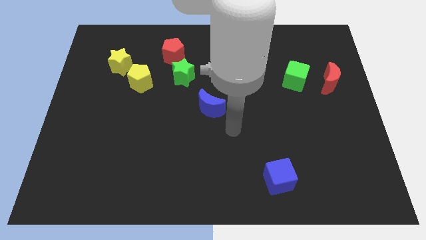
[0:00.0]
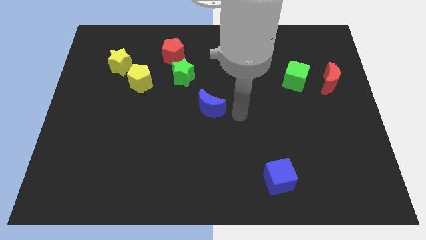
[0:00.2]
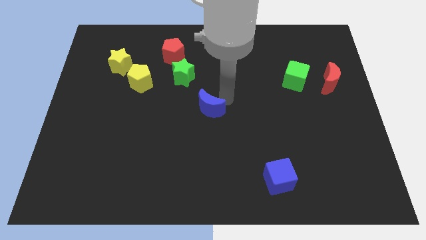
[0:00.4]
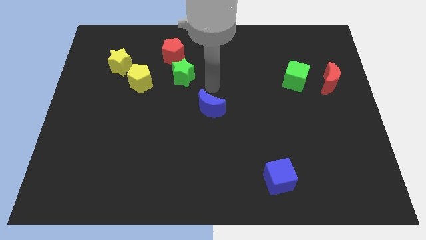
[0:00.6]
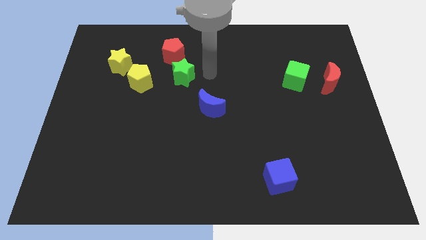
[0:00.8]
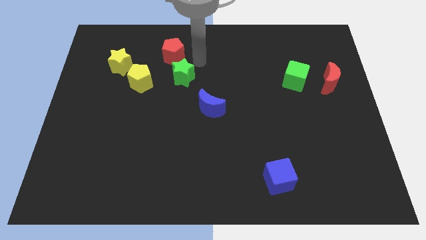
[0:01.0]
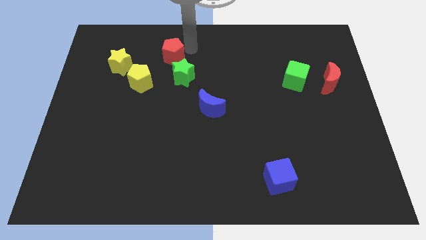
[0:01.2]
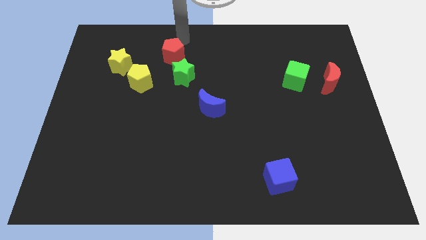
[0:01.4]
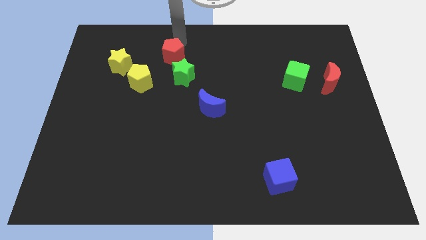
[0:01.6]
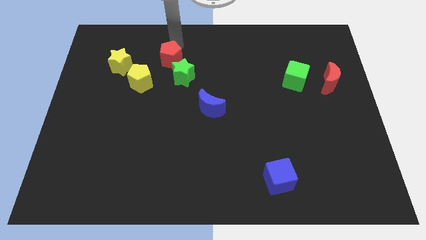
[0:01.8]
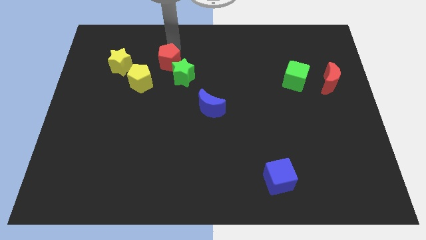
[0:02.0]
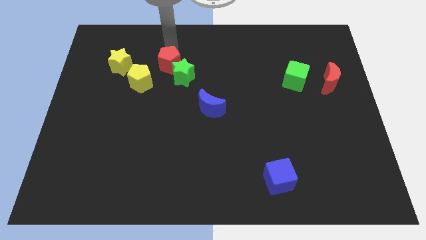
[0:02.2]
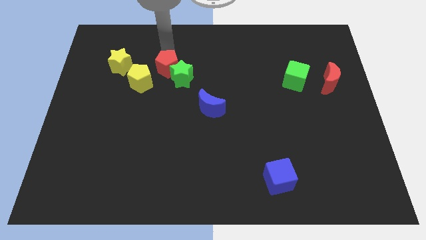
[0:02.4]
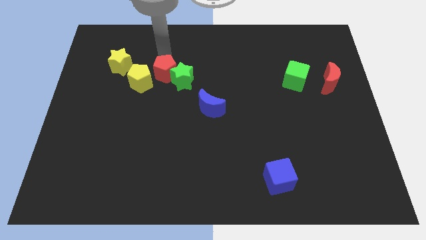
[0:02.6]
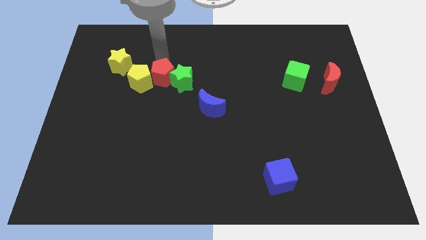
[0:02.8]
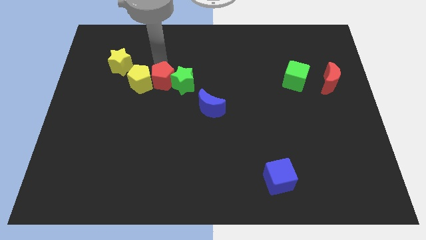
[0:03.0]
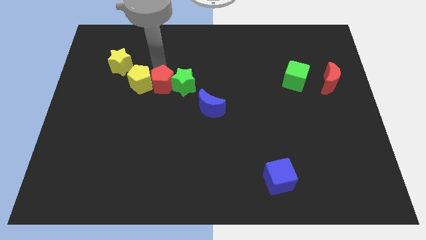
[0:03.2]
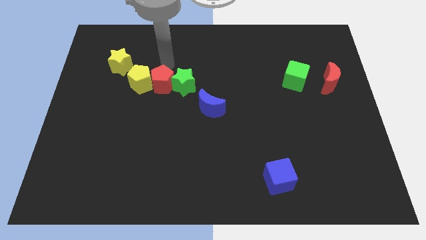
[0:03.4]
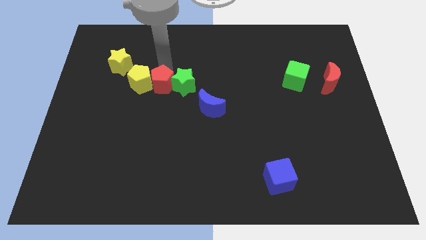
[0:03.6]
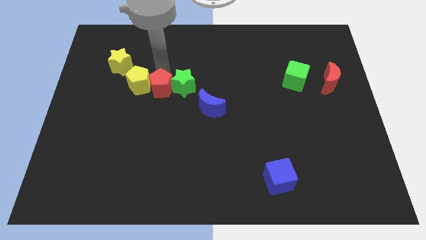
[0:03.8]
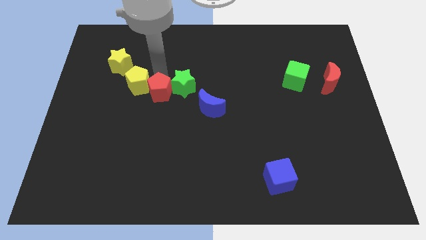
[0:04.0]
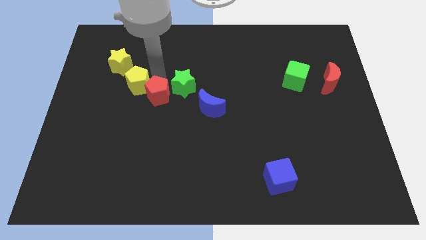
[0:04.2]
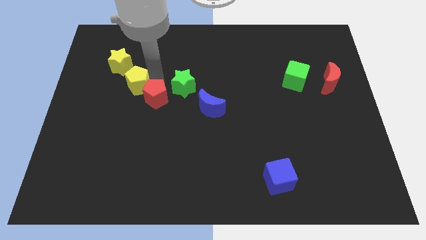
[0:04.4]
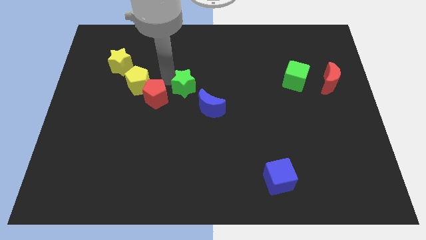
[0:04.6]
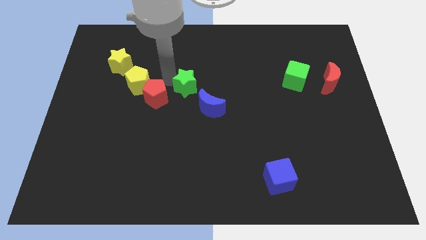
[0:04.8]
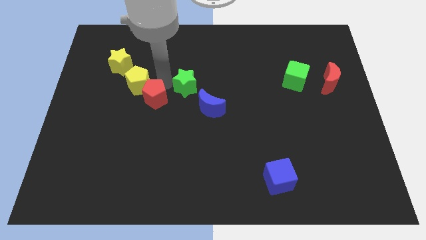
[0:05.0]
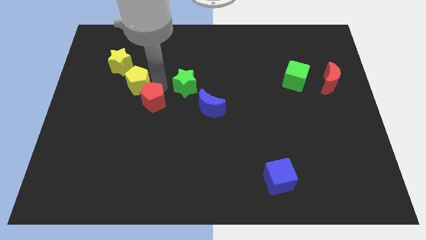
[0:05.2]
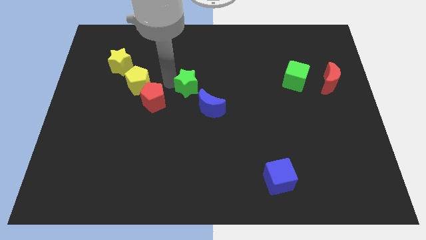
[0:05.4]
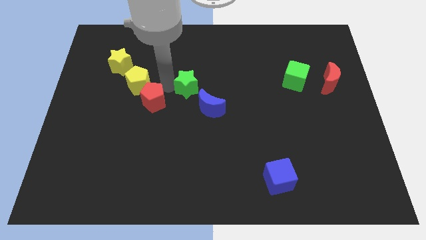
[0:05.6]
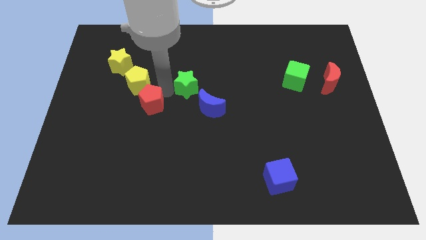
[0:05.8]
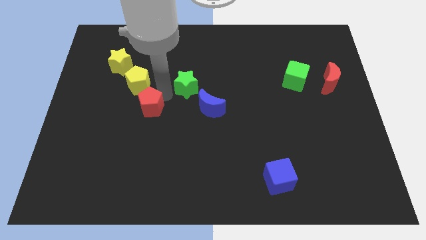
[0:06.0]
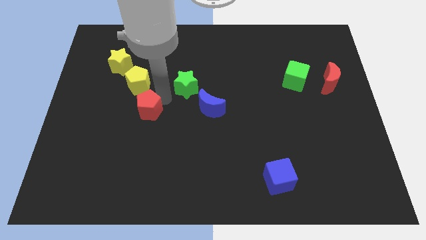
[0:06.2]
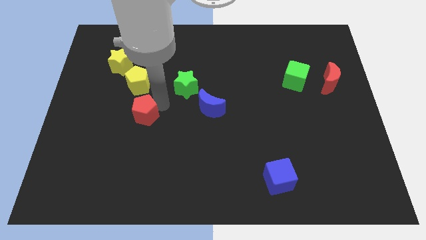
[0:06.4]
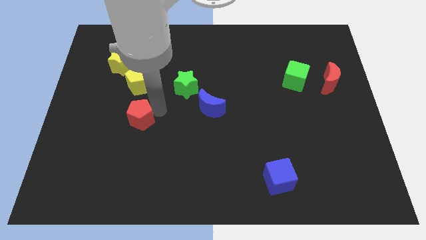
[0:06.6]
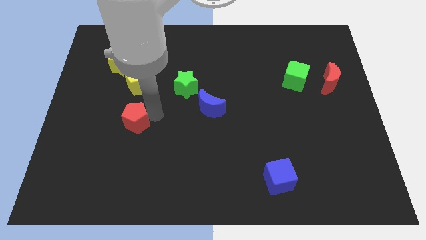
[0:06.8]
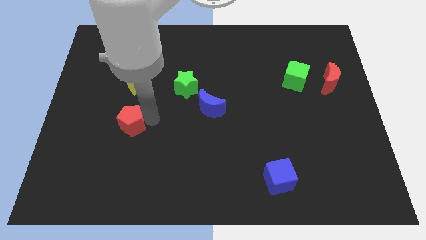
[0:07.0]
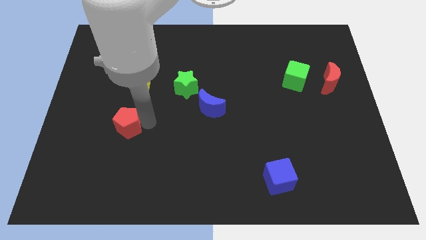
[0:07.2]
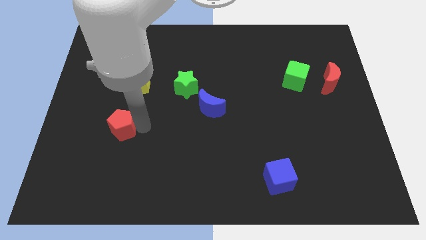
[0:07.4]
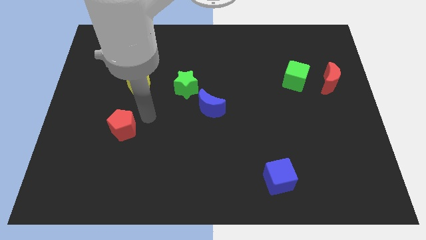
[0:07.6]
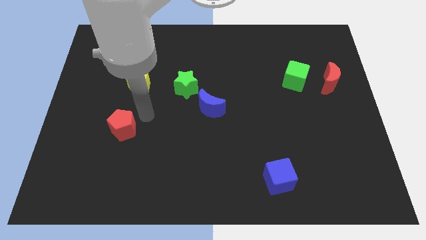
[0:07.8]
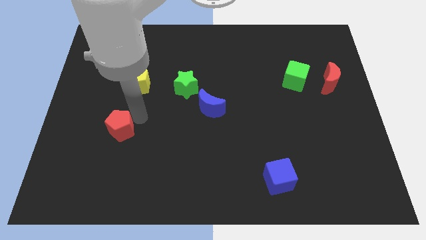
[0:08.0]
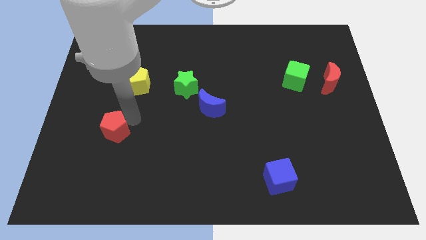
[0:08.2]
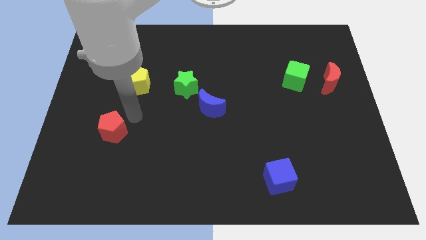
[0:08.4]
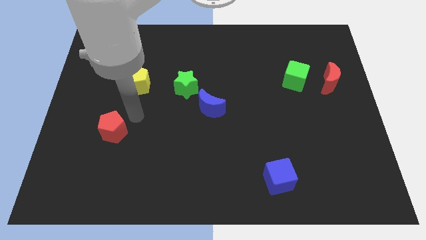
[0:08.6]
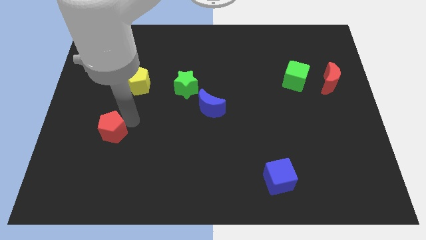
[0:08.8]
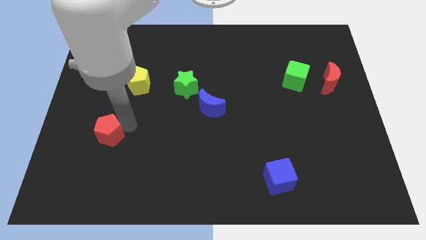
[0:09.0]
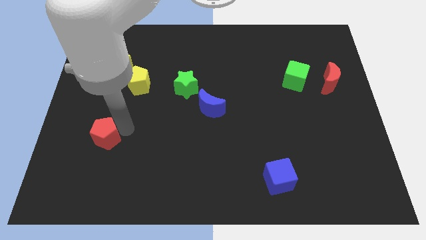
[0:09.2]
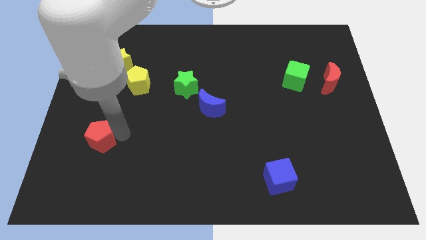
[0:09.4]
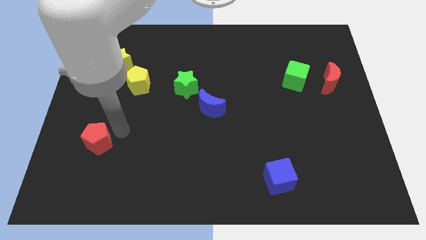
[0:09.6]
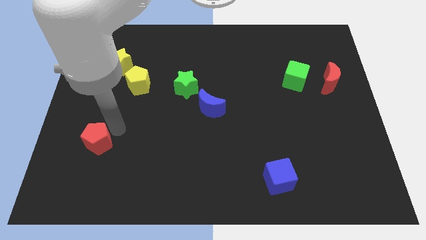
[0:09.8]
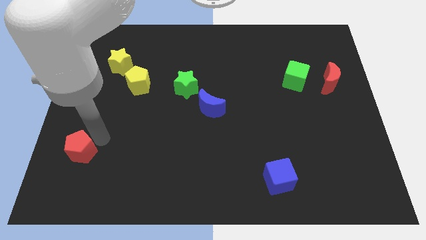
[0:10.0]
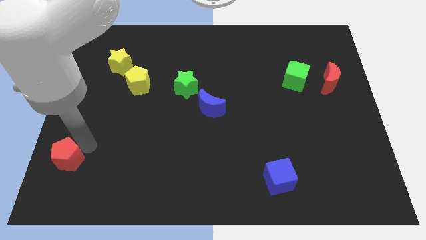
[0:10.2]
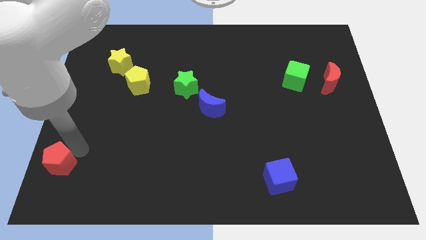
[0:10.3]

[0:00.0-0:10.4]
move the red pentagon to the bottom left corner

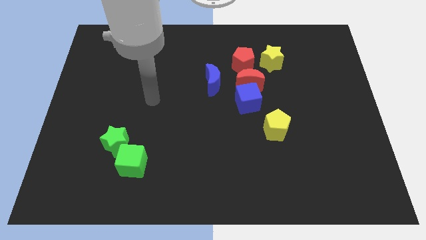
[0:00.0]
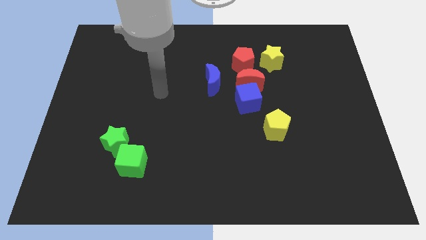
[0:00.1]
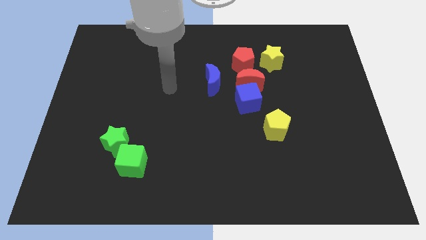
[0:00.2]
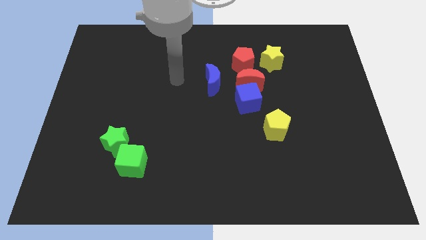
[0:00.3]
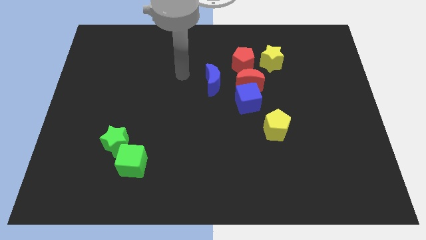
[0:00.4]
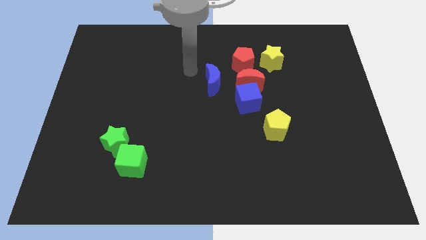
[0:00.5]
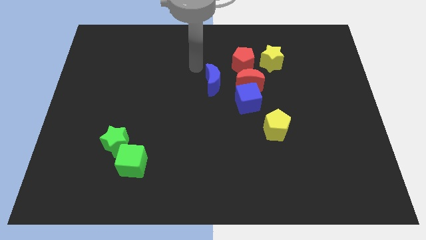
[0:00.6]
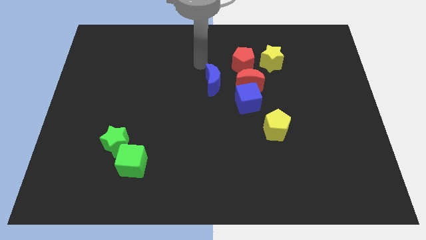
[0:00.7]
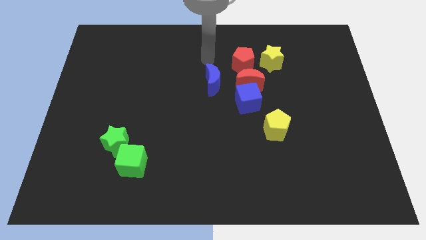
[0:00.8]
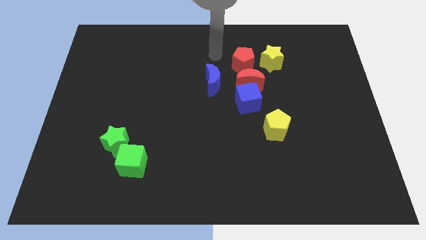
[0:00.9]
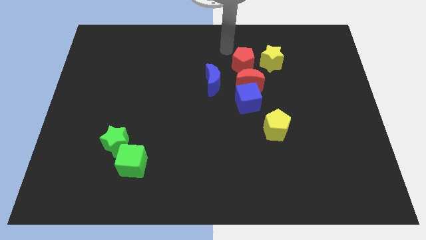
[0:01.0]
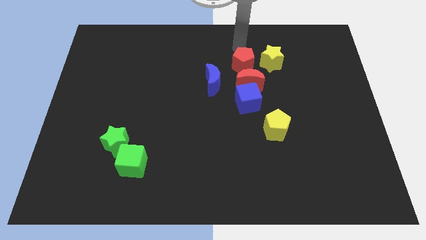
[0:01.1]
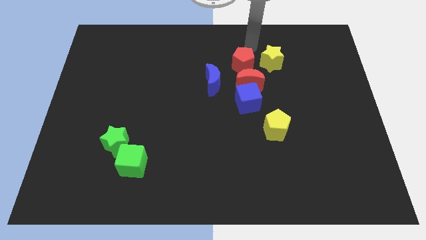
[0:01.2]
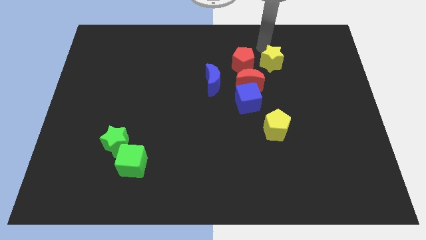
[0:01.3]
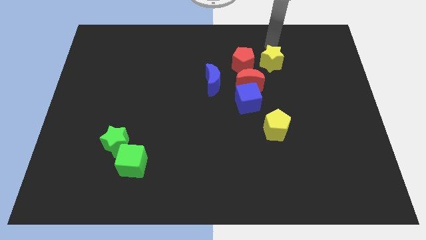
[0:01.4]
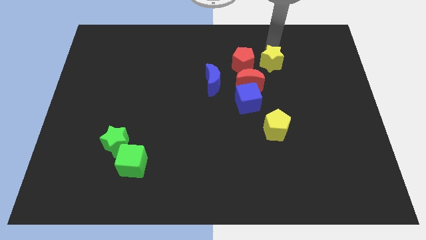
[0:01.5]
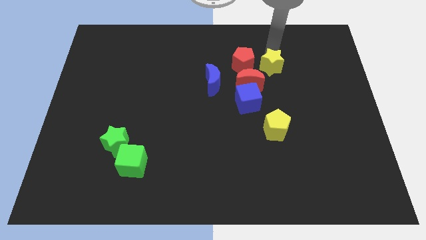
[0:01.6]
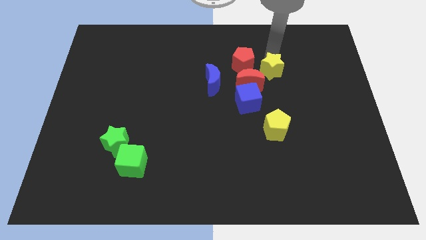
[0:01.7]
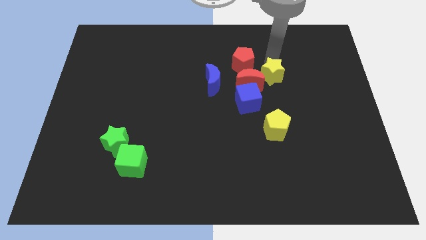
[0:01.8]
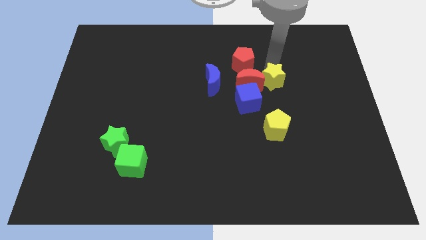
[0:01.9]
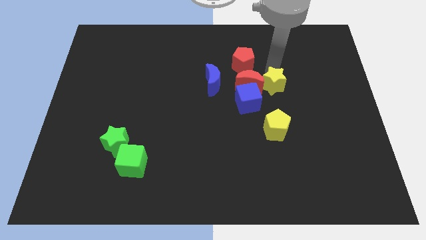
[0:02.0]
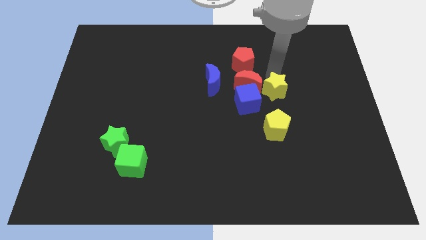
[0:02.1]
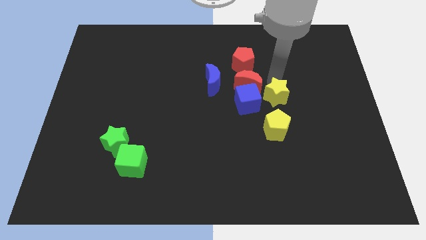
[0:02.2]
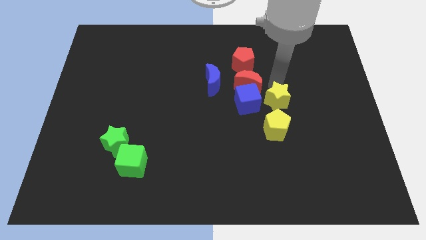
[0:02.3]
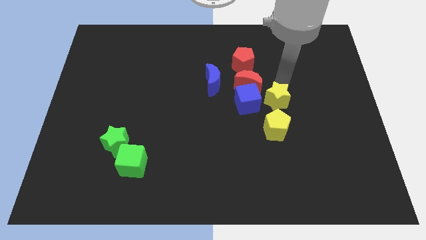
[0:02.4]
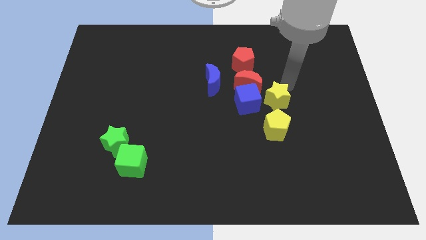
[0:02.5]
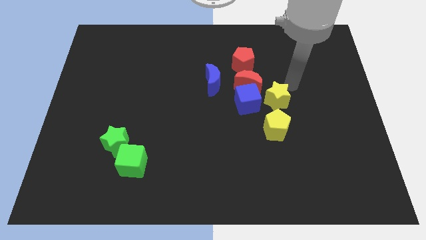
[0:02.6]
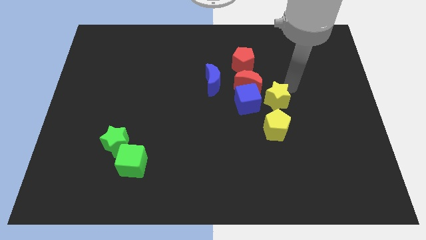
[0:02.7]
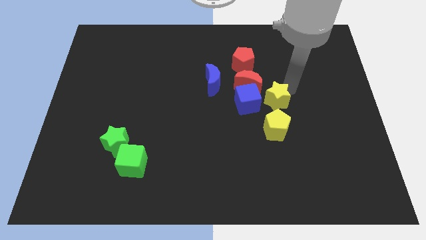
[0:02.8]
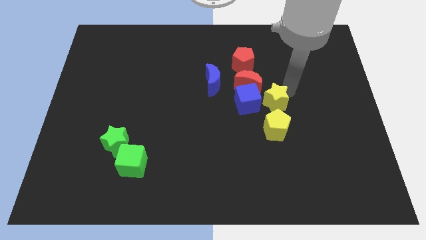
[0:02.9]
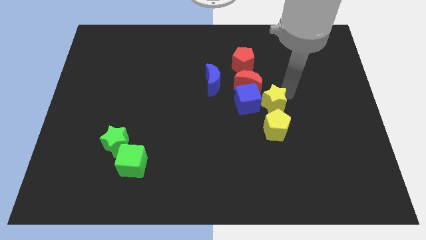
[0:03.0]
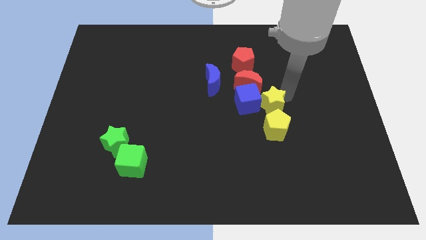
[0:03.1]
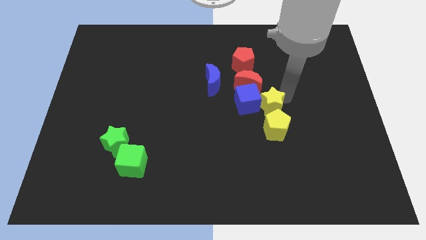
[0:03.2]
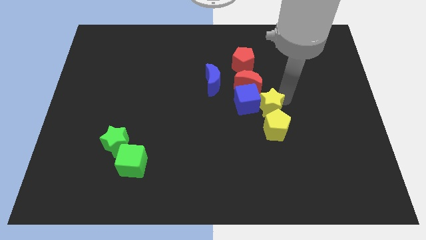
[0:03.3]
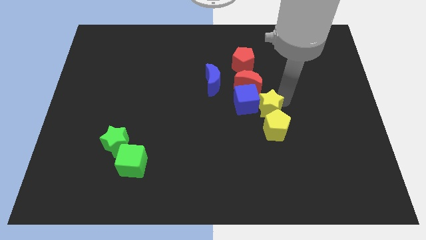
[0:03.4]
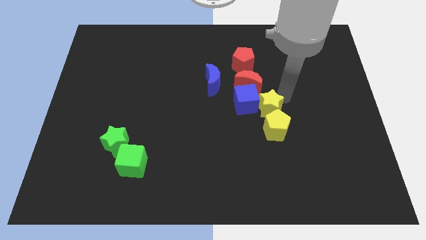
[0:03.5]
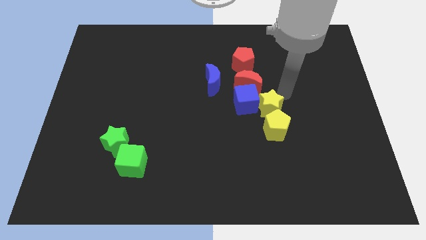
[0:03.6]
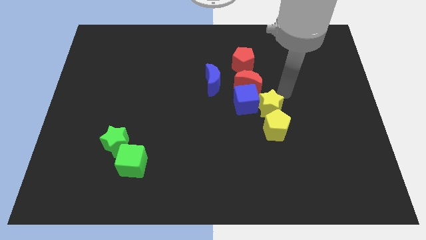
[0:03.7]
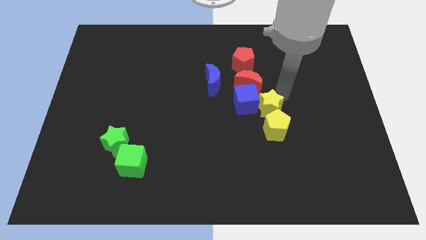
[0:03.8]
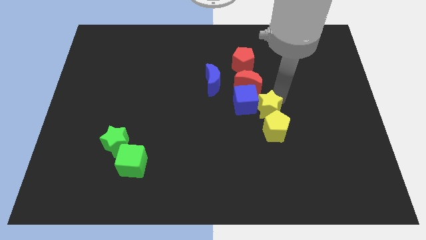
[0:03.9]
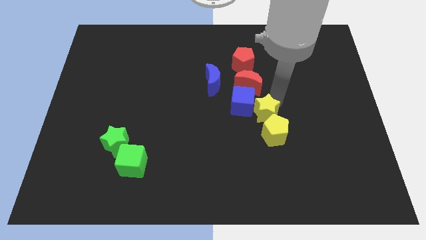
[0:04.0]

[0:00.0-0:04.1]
push the yellow star to the center of the board
